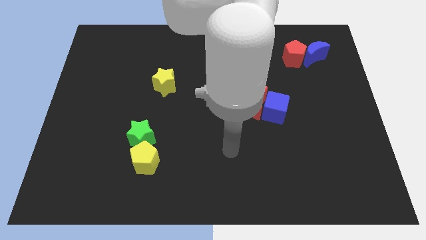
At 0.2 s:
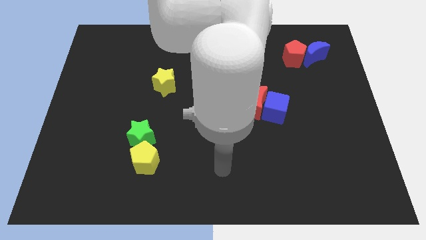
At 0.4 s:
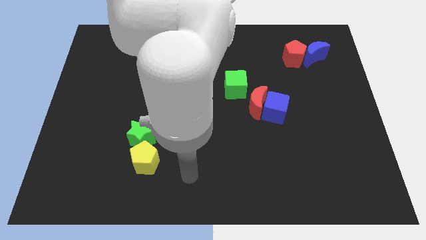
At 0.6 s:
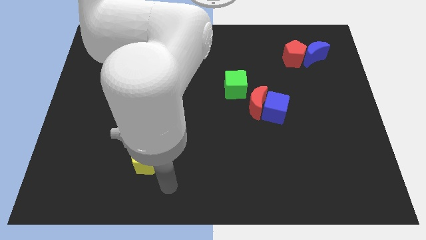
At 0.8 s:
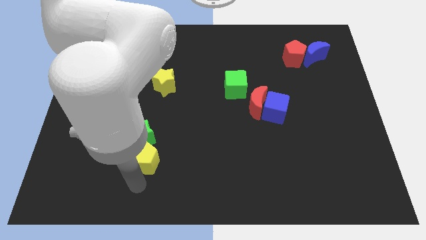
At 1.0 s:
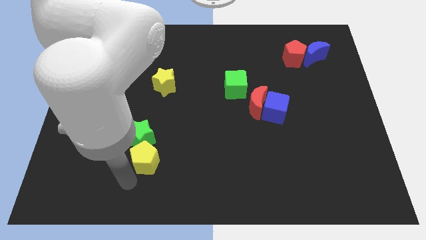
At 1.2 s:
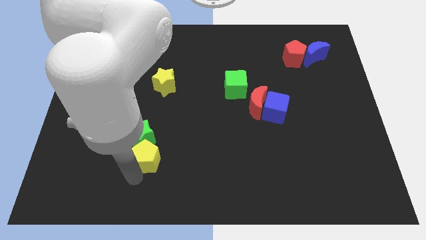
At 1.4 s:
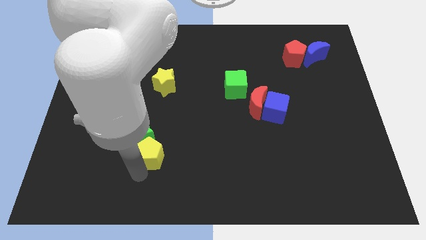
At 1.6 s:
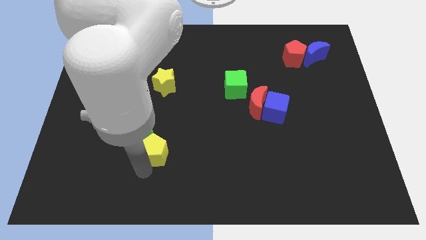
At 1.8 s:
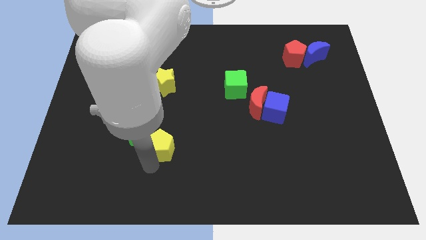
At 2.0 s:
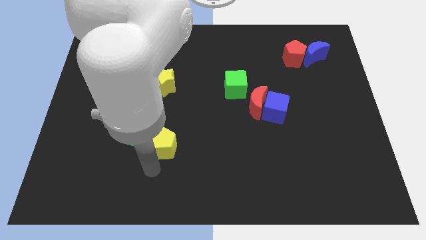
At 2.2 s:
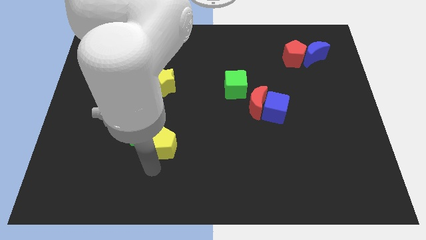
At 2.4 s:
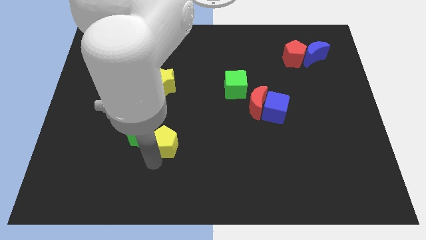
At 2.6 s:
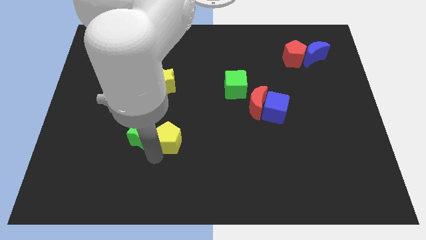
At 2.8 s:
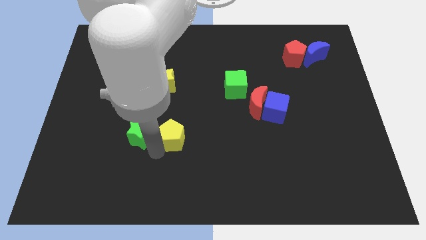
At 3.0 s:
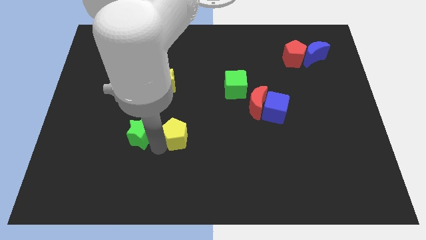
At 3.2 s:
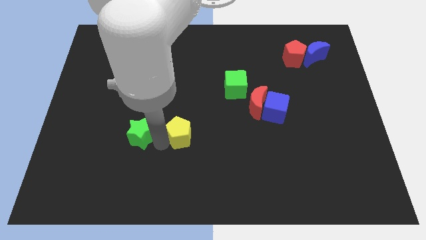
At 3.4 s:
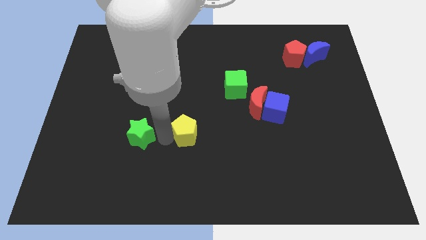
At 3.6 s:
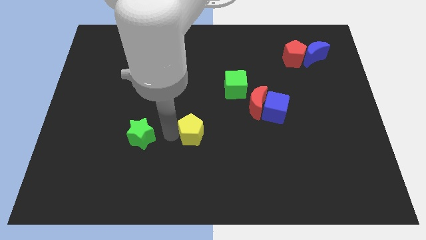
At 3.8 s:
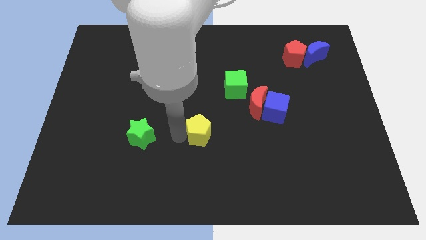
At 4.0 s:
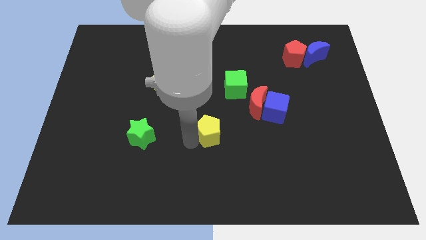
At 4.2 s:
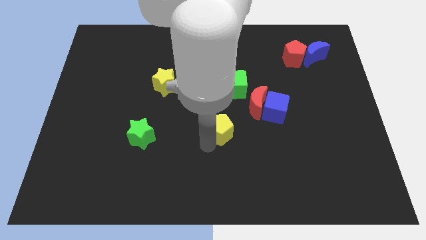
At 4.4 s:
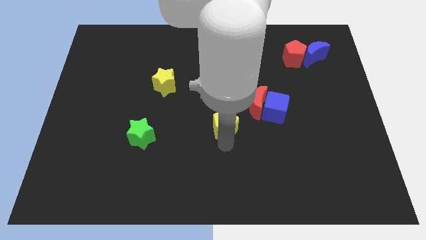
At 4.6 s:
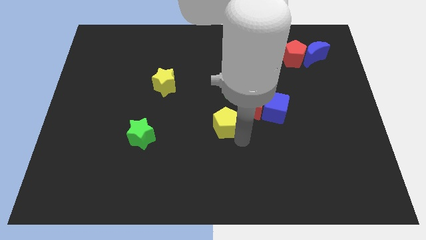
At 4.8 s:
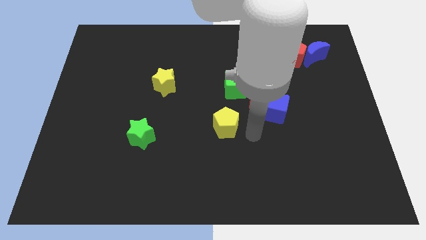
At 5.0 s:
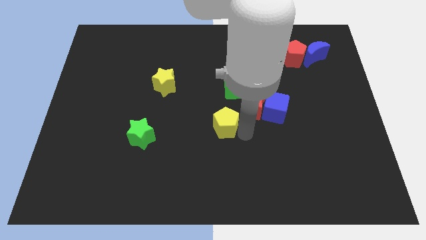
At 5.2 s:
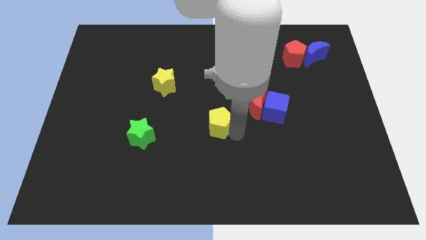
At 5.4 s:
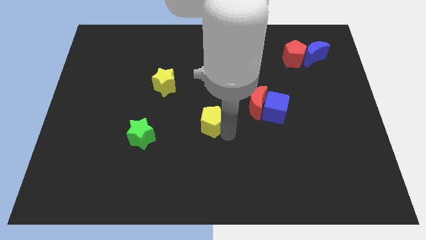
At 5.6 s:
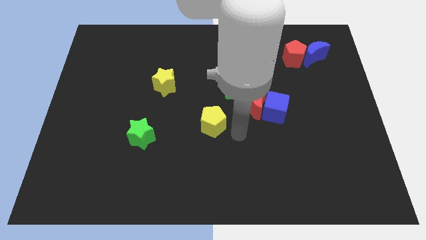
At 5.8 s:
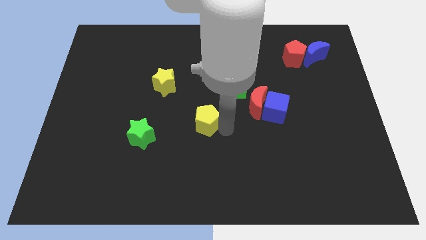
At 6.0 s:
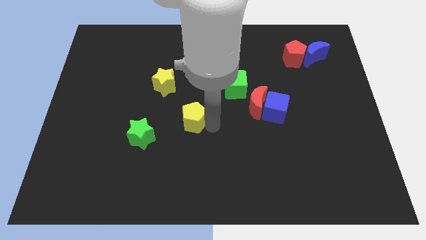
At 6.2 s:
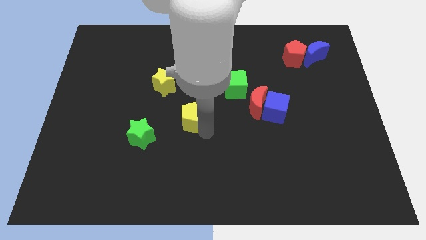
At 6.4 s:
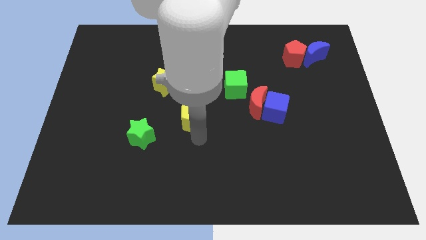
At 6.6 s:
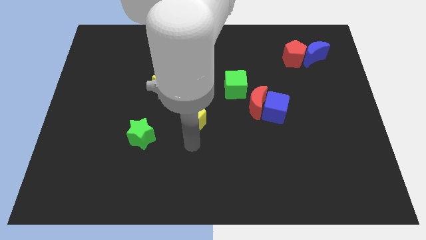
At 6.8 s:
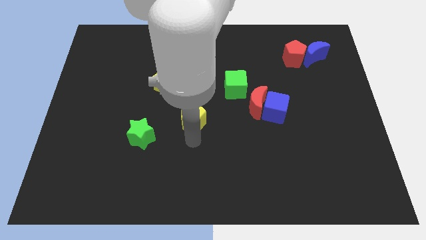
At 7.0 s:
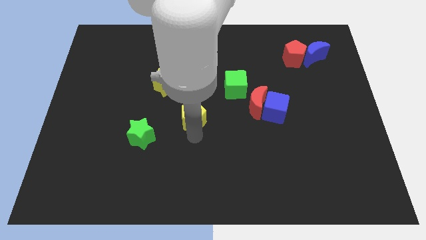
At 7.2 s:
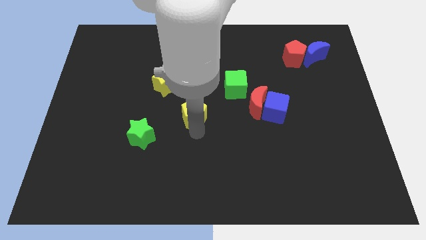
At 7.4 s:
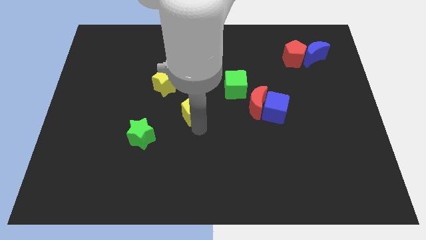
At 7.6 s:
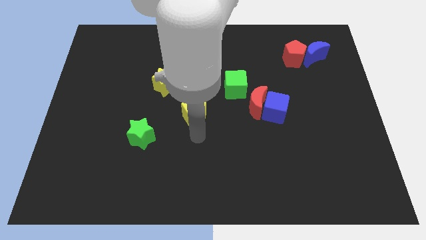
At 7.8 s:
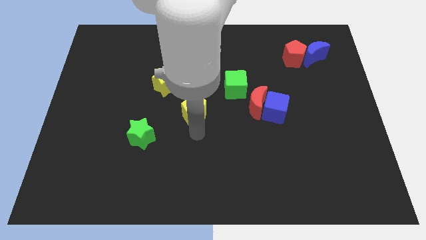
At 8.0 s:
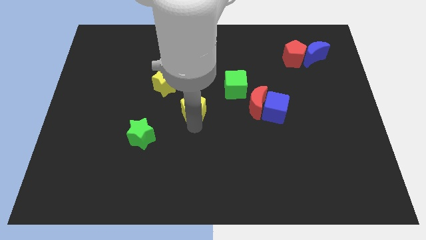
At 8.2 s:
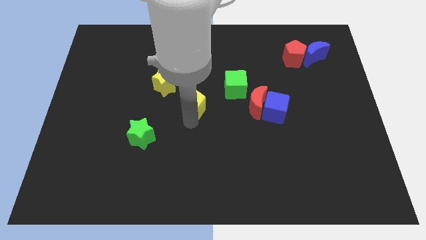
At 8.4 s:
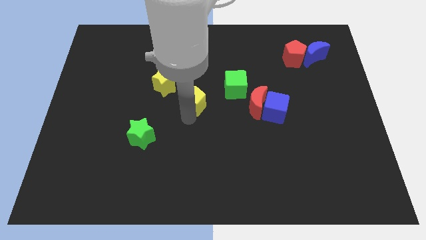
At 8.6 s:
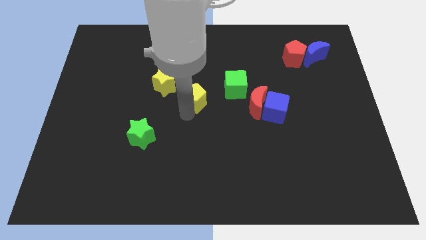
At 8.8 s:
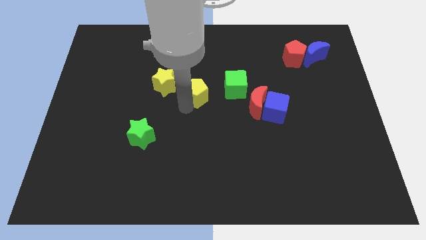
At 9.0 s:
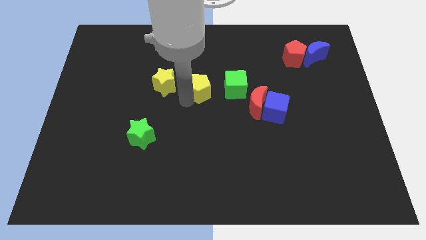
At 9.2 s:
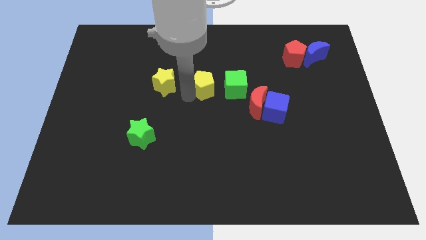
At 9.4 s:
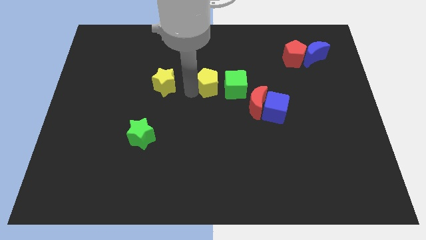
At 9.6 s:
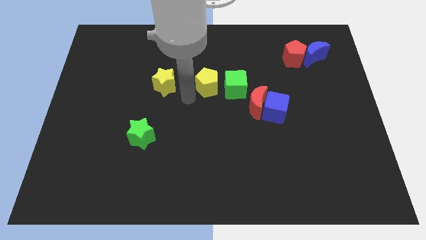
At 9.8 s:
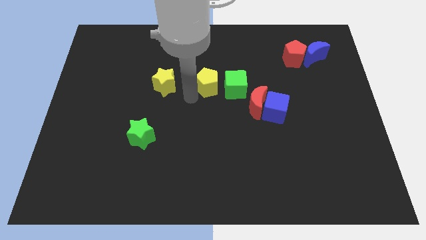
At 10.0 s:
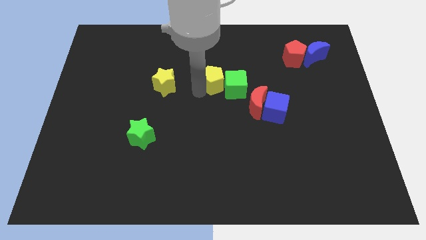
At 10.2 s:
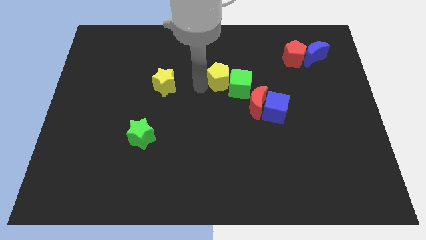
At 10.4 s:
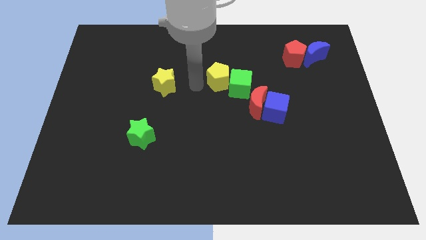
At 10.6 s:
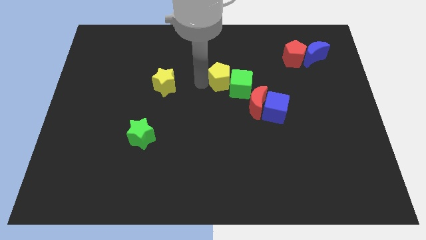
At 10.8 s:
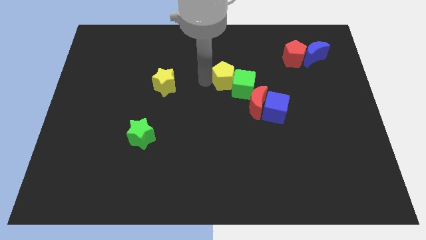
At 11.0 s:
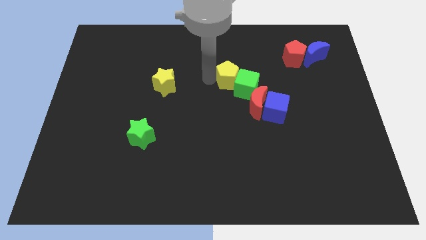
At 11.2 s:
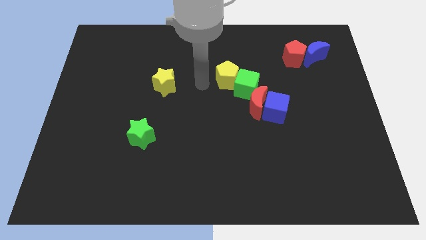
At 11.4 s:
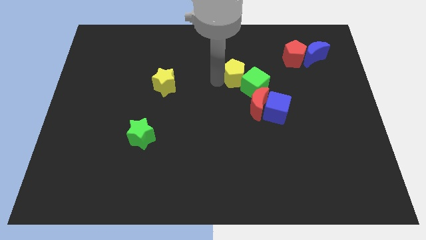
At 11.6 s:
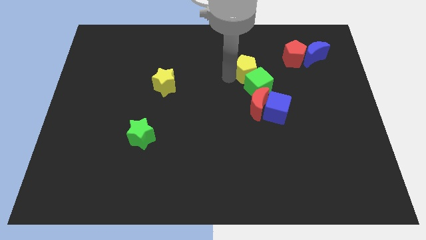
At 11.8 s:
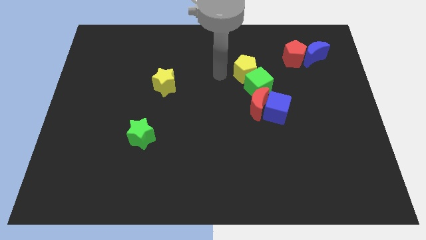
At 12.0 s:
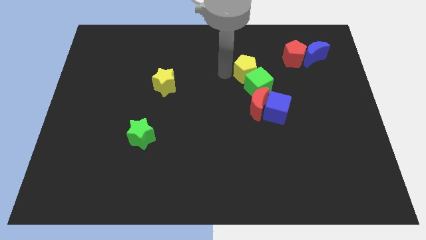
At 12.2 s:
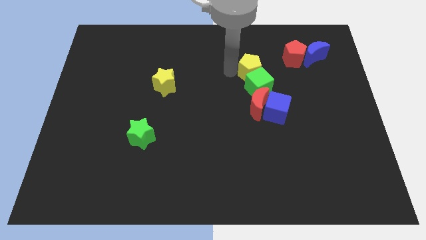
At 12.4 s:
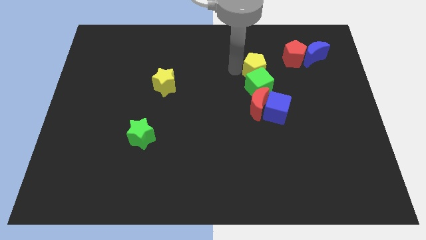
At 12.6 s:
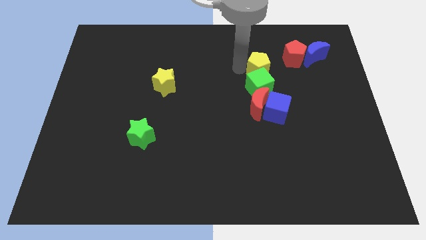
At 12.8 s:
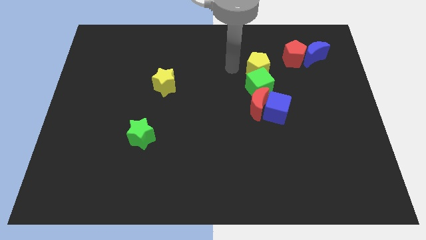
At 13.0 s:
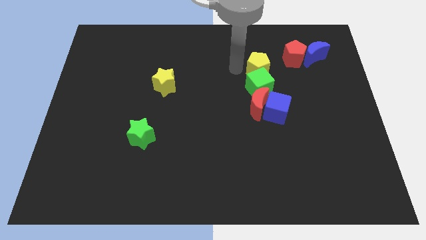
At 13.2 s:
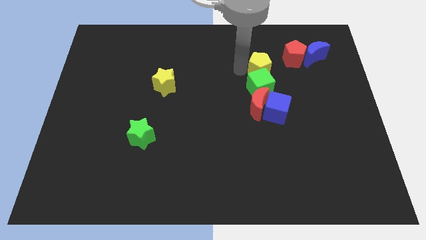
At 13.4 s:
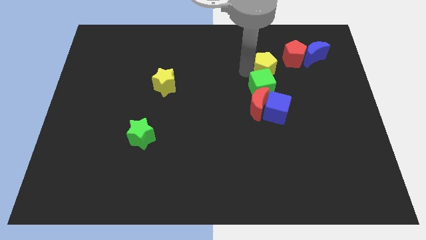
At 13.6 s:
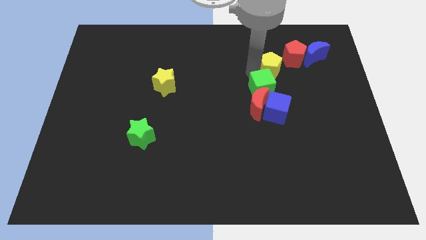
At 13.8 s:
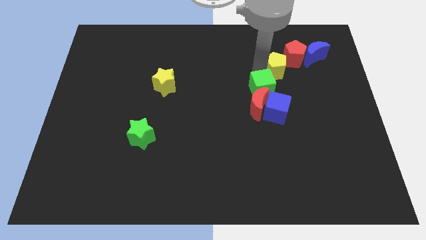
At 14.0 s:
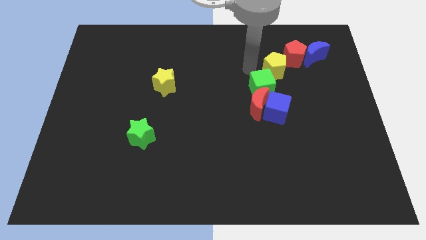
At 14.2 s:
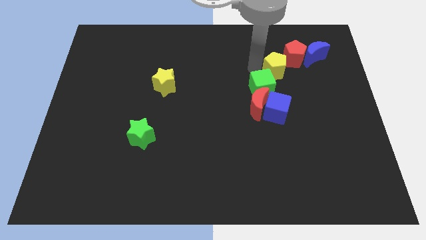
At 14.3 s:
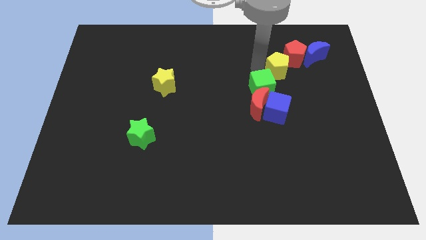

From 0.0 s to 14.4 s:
slide the yellow pentagon to the bottom left of the blue moon

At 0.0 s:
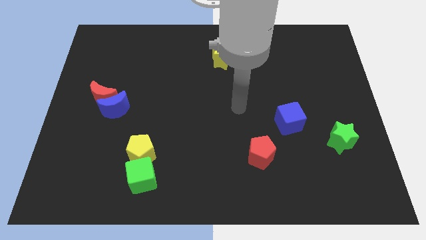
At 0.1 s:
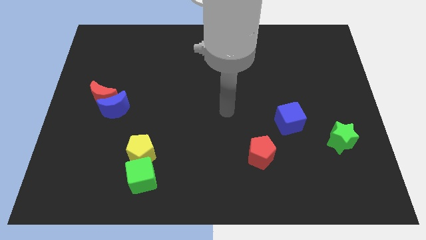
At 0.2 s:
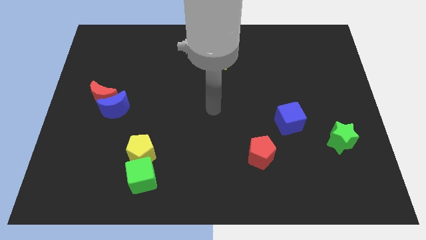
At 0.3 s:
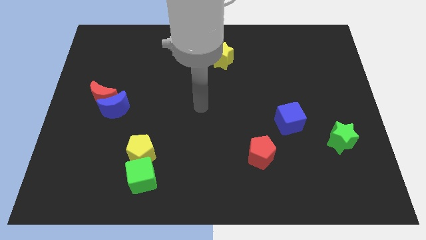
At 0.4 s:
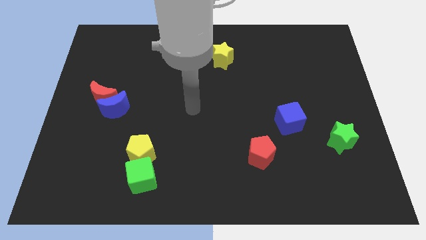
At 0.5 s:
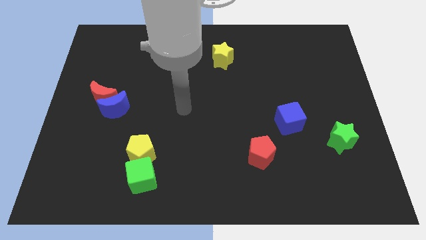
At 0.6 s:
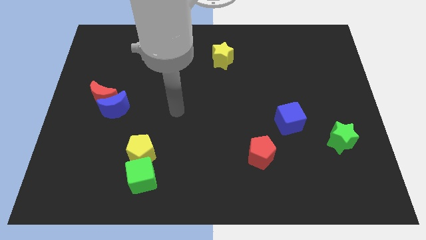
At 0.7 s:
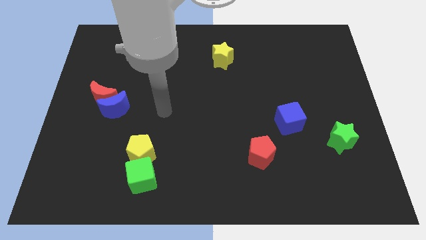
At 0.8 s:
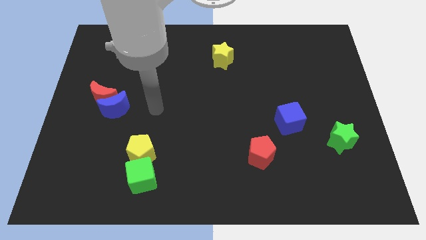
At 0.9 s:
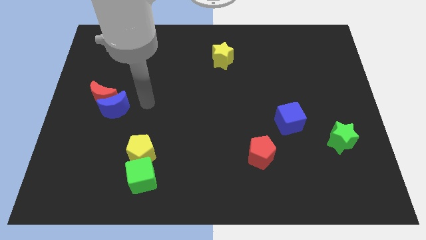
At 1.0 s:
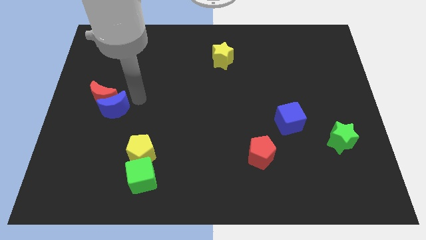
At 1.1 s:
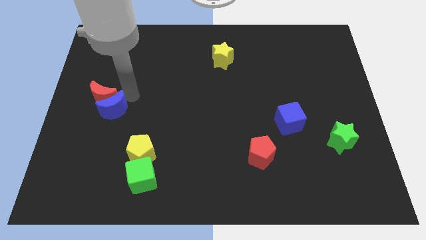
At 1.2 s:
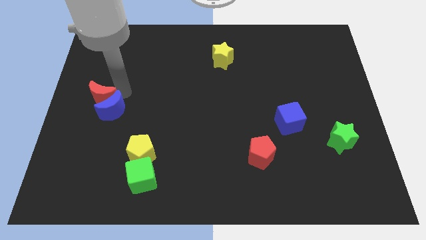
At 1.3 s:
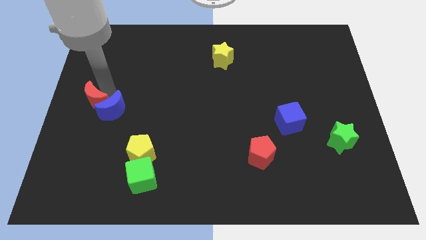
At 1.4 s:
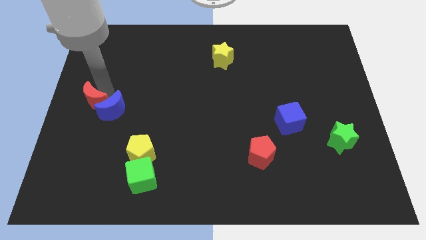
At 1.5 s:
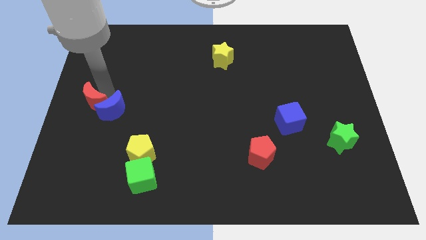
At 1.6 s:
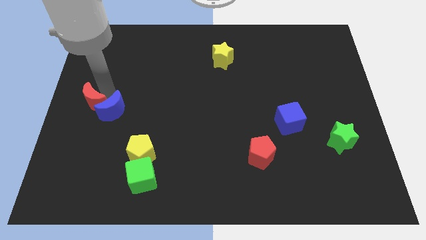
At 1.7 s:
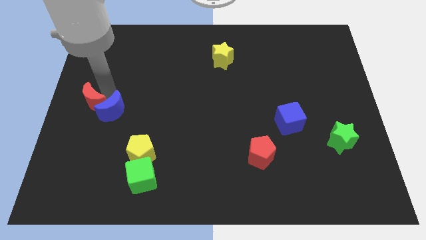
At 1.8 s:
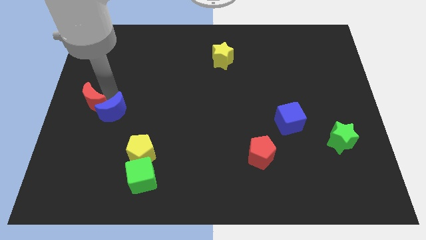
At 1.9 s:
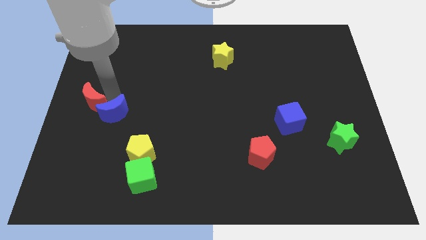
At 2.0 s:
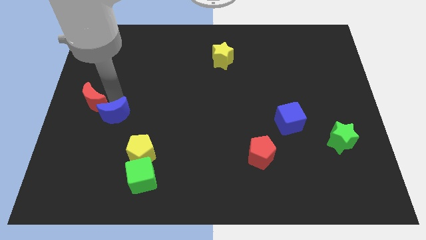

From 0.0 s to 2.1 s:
slide the blue moon to the top left of the yellow pentagon
